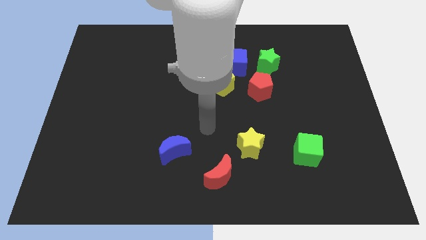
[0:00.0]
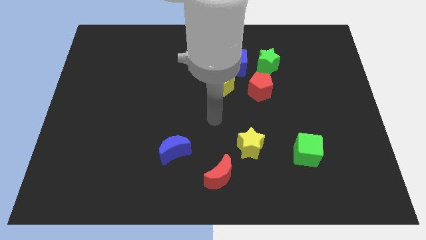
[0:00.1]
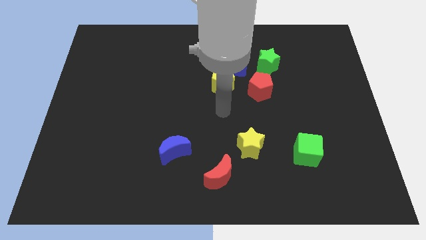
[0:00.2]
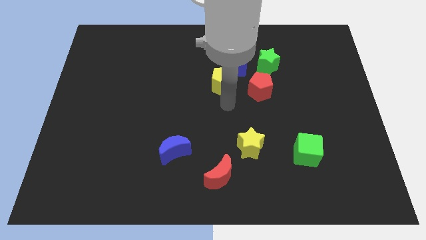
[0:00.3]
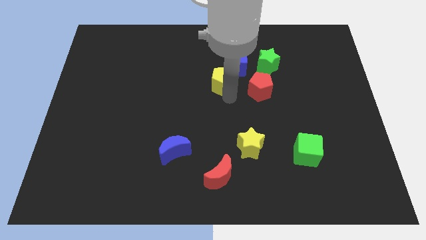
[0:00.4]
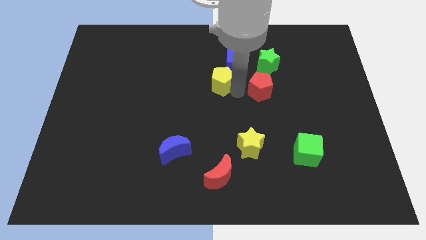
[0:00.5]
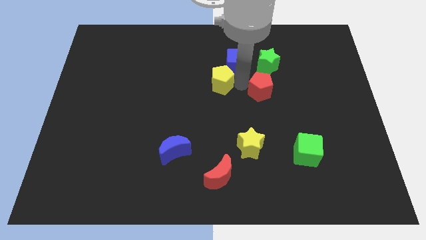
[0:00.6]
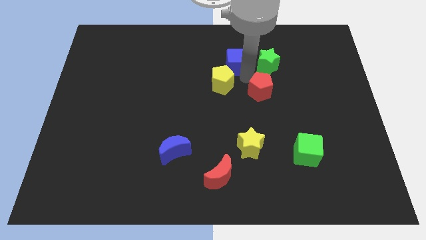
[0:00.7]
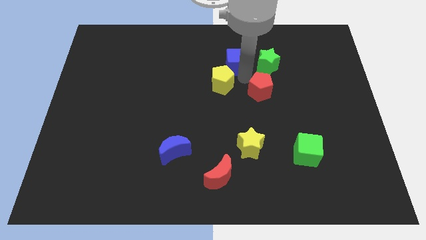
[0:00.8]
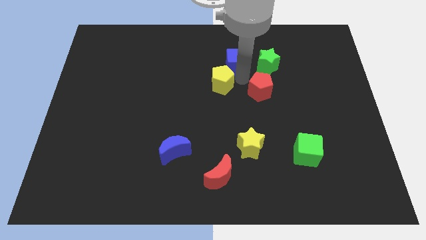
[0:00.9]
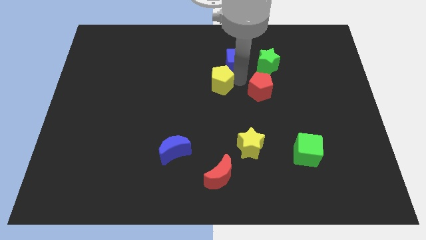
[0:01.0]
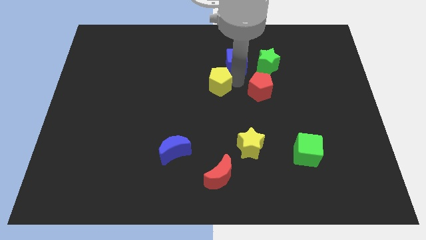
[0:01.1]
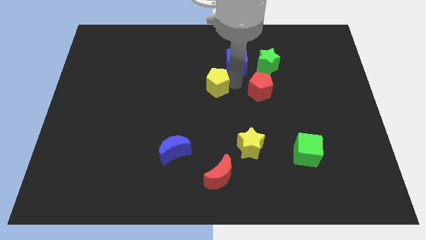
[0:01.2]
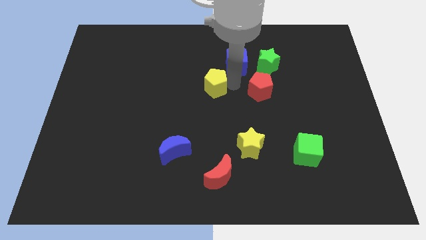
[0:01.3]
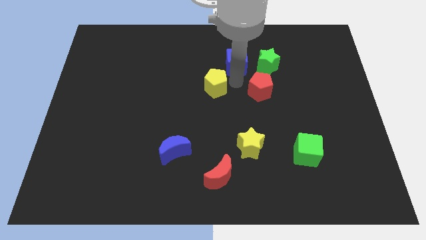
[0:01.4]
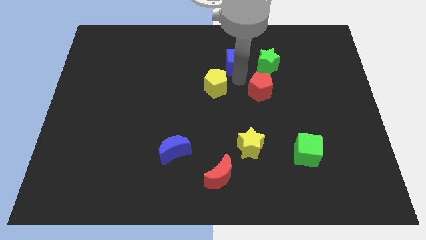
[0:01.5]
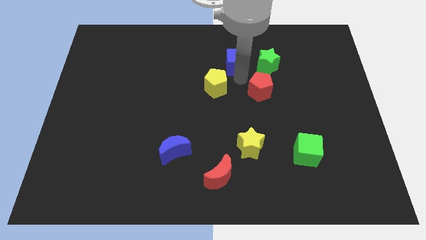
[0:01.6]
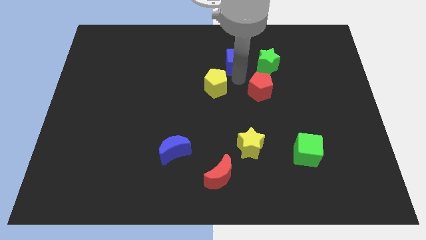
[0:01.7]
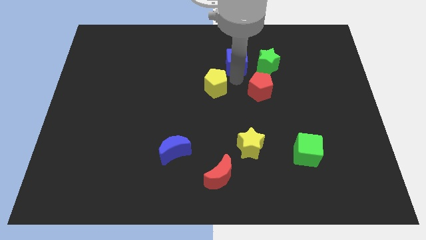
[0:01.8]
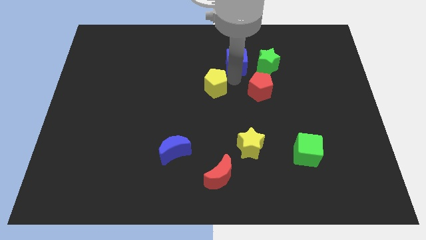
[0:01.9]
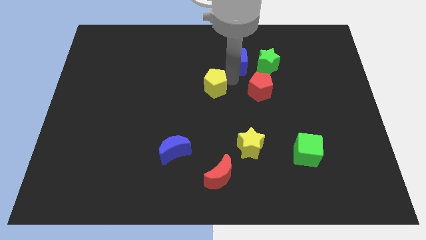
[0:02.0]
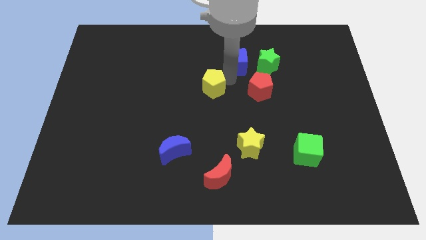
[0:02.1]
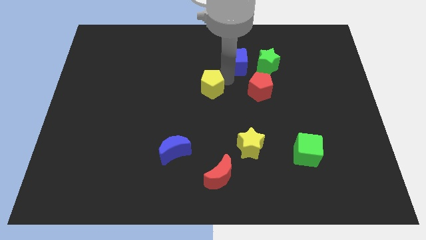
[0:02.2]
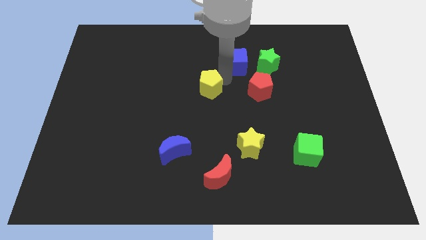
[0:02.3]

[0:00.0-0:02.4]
move the yellow pentagon away from the blue cube and red pentagon

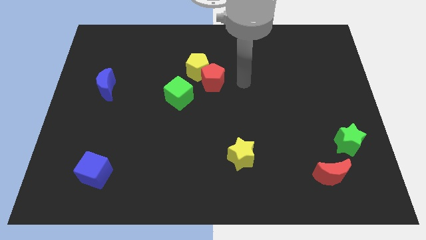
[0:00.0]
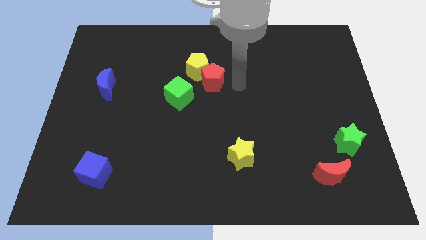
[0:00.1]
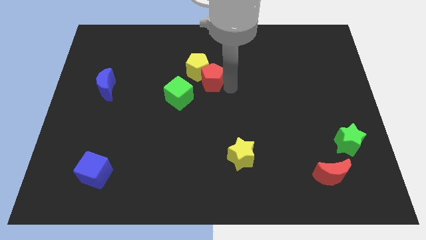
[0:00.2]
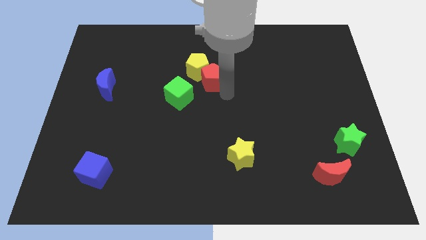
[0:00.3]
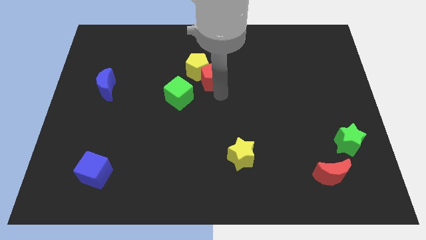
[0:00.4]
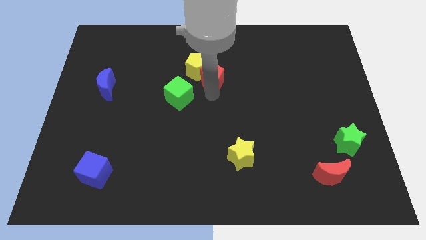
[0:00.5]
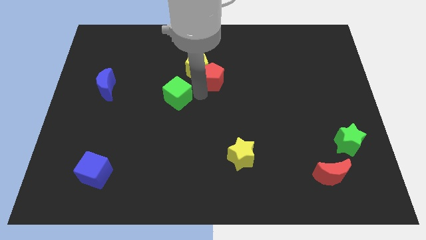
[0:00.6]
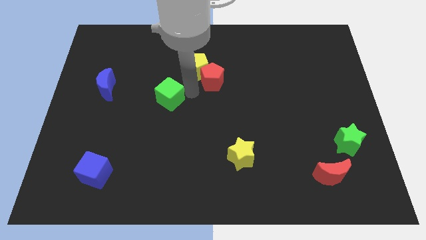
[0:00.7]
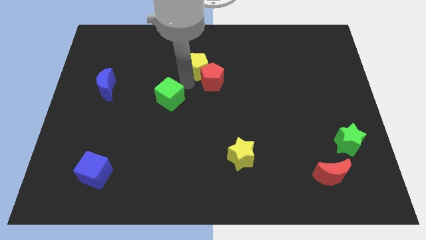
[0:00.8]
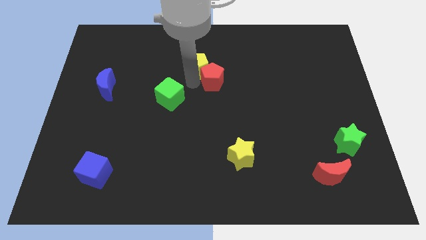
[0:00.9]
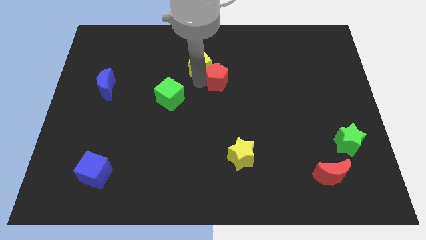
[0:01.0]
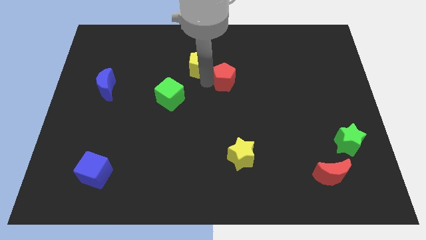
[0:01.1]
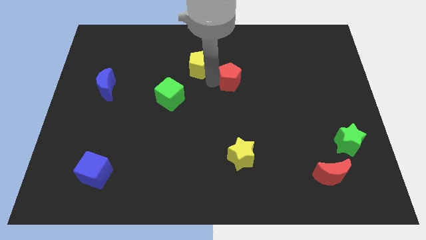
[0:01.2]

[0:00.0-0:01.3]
separate the red pentagon from the yellow pentagon and green cube

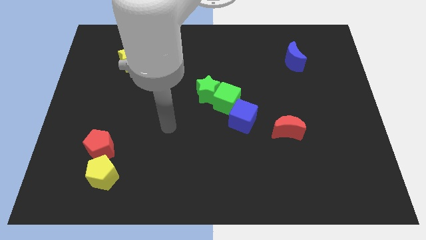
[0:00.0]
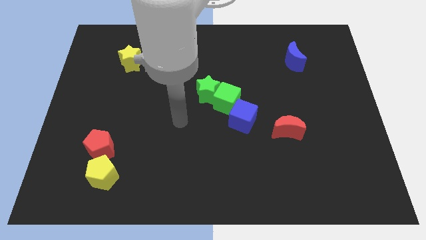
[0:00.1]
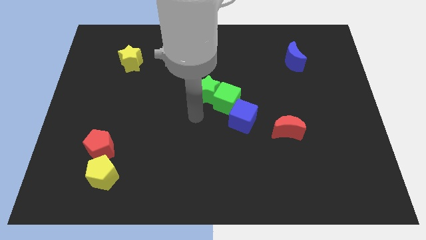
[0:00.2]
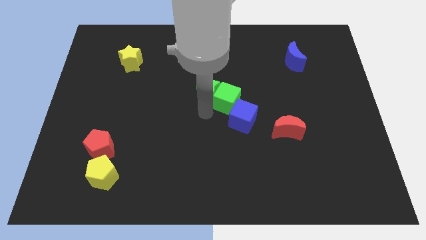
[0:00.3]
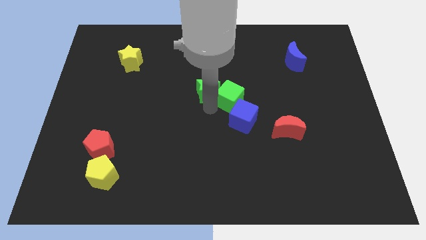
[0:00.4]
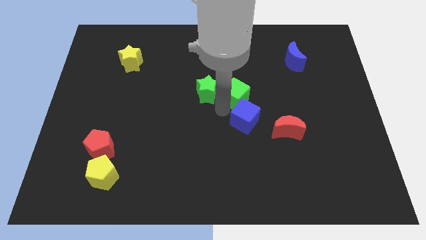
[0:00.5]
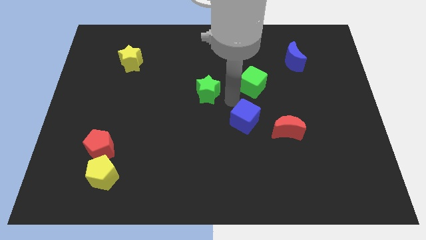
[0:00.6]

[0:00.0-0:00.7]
move the green star away from the green cube

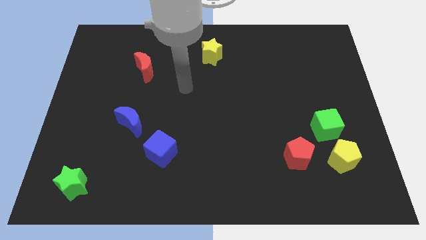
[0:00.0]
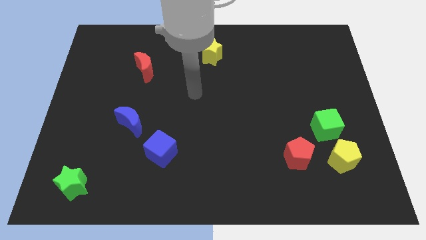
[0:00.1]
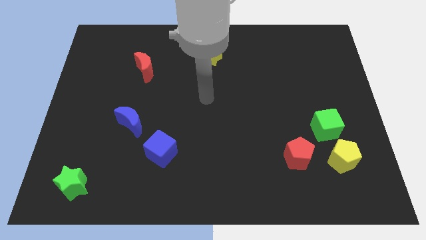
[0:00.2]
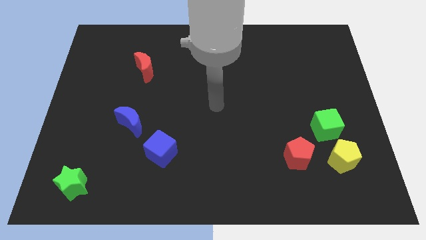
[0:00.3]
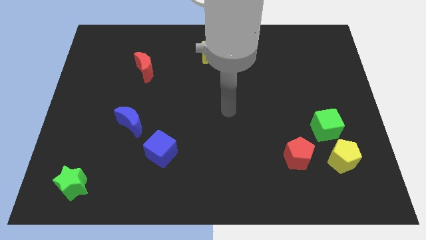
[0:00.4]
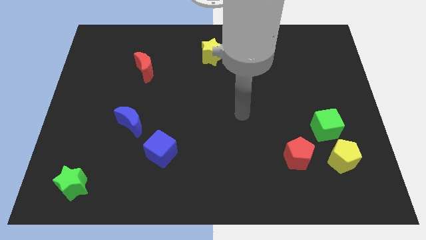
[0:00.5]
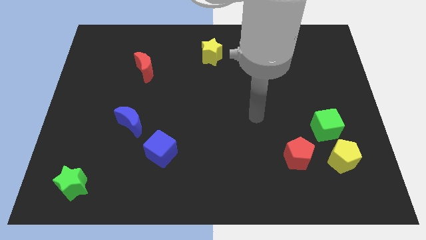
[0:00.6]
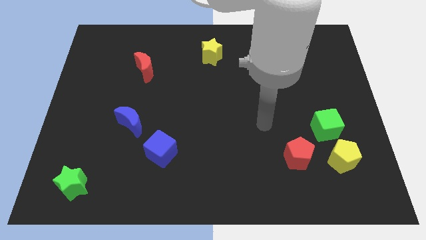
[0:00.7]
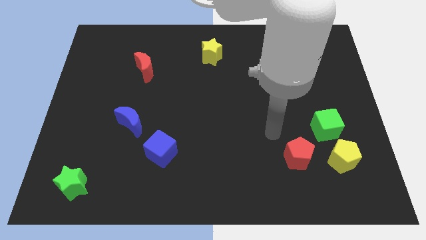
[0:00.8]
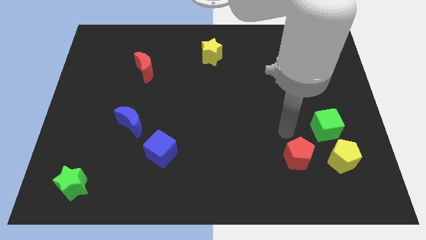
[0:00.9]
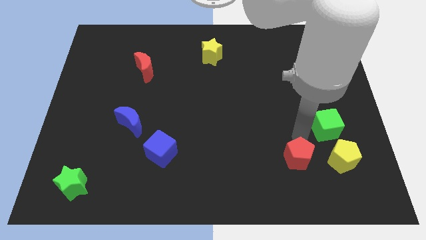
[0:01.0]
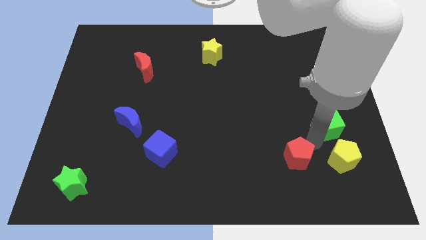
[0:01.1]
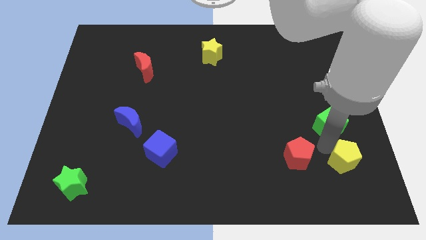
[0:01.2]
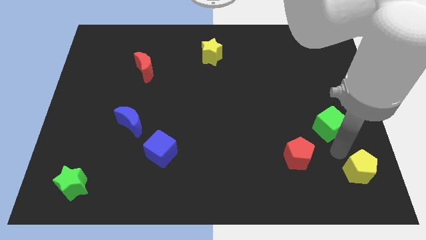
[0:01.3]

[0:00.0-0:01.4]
move the green cube away from the yellow pentagon

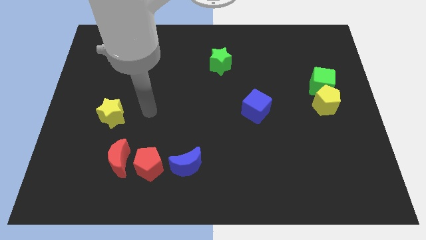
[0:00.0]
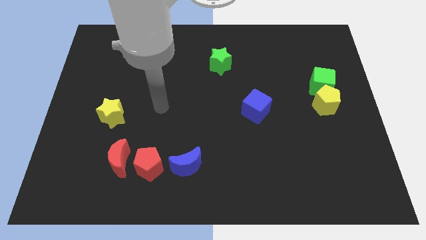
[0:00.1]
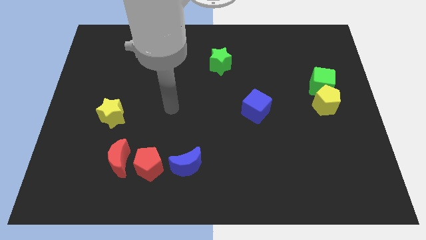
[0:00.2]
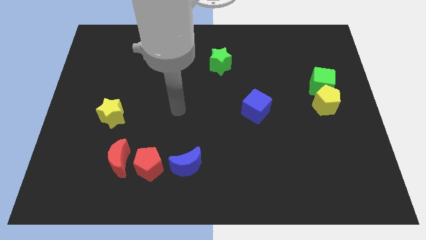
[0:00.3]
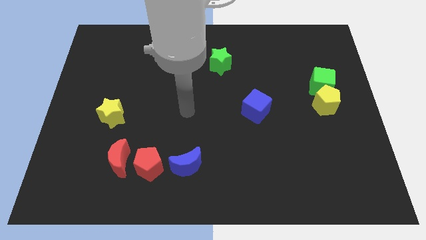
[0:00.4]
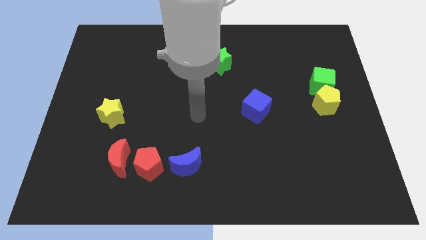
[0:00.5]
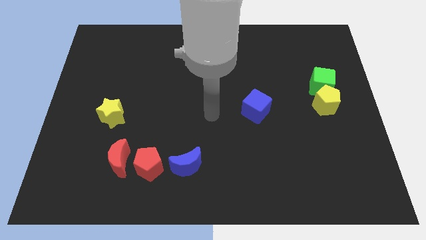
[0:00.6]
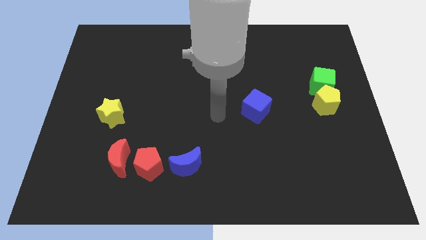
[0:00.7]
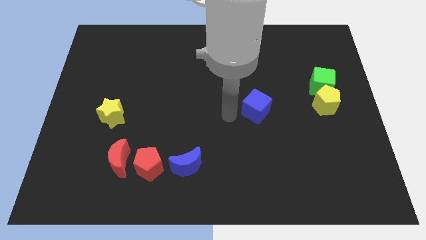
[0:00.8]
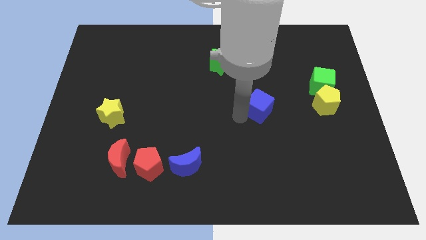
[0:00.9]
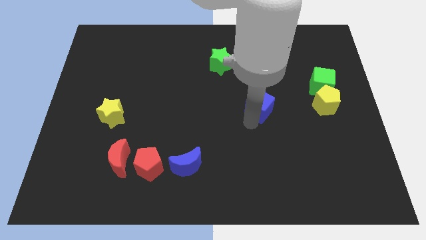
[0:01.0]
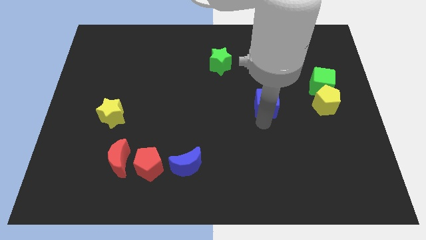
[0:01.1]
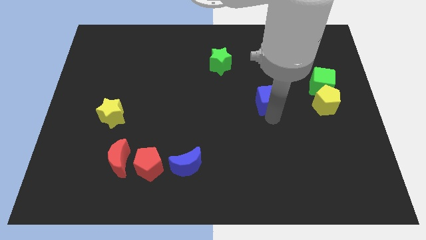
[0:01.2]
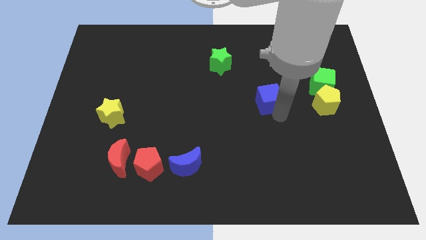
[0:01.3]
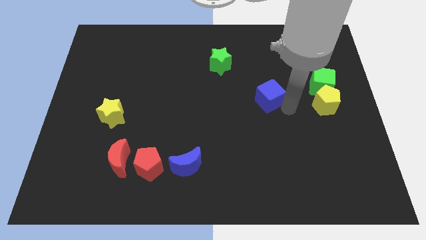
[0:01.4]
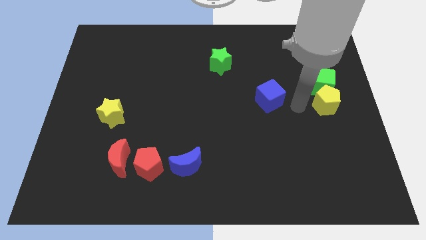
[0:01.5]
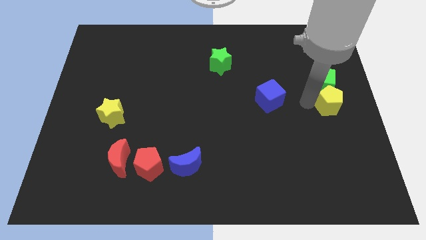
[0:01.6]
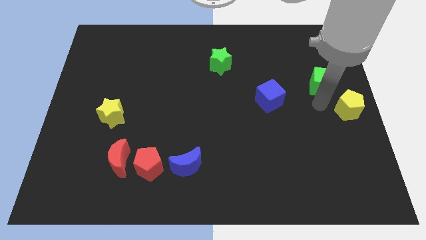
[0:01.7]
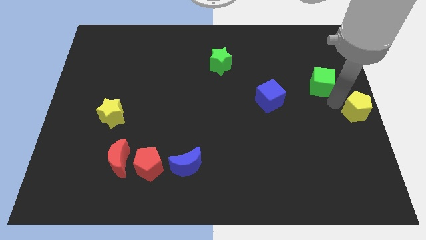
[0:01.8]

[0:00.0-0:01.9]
pull the green cube apart from the yellow pentagon

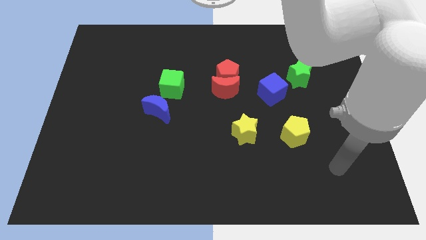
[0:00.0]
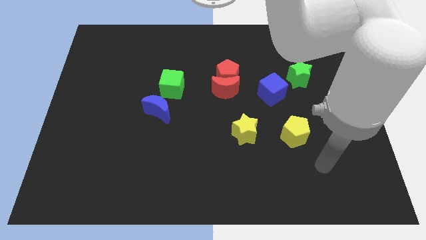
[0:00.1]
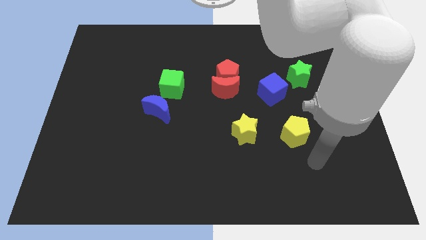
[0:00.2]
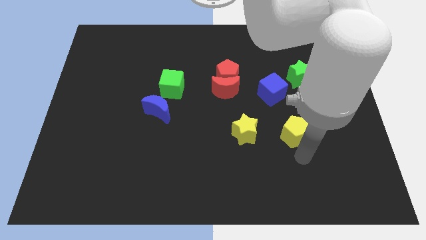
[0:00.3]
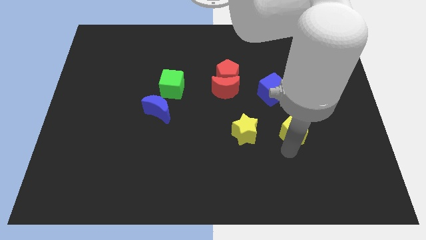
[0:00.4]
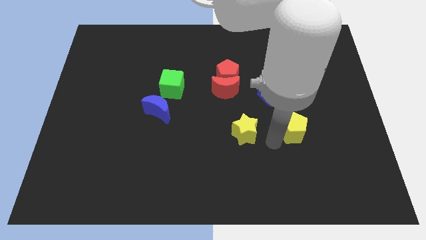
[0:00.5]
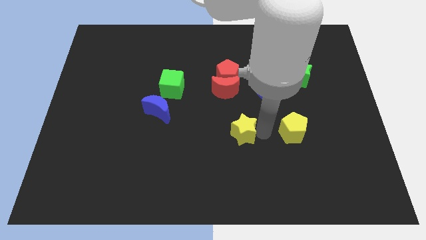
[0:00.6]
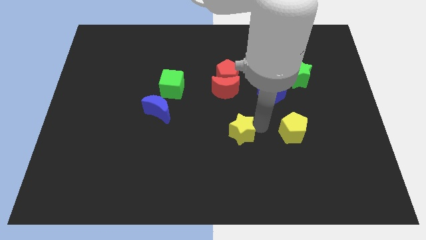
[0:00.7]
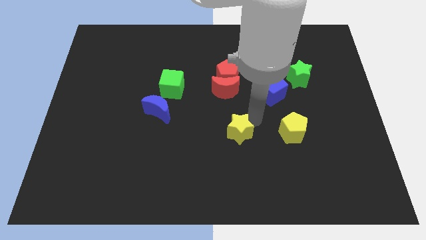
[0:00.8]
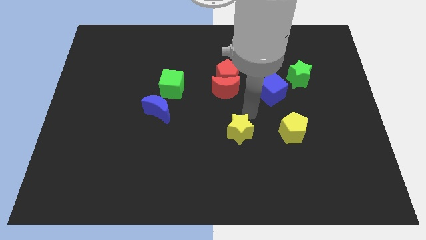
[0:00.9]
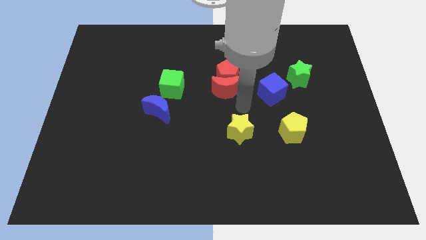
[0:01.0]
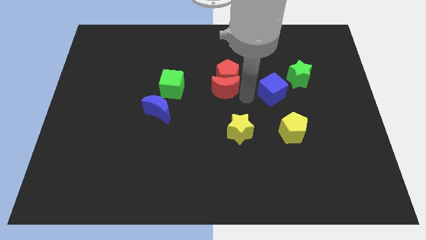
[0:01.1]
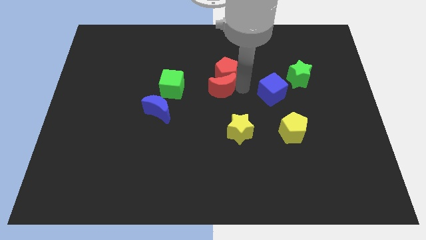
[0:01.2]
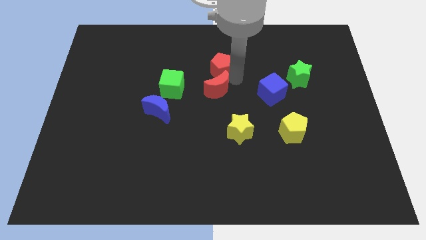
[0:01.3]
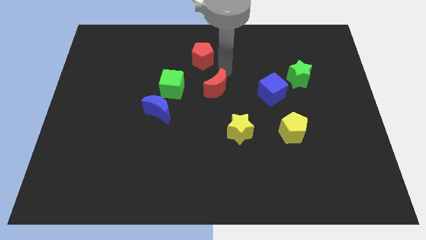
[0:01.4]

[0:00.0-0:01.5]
pull the red moon apart from the red pentagon

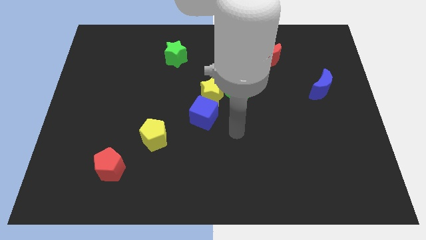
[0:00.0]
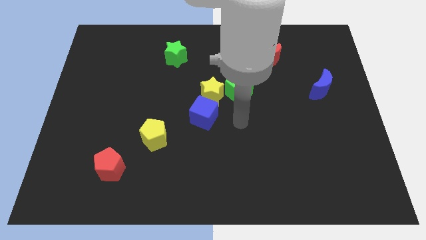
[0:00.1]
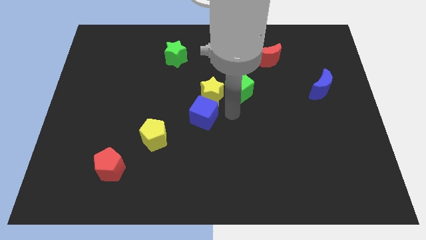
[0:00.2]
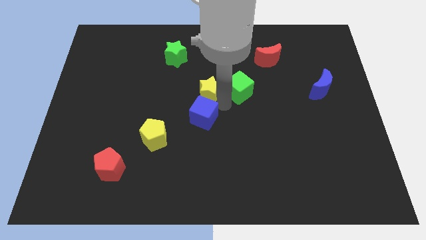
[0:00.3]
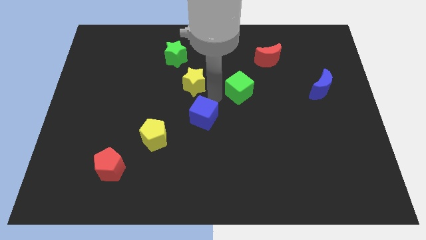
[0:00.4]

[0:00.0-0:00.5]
pull the green cube apart from the yellow star
